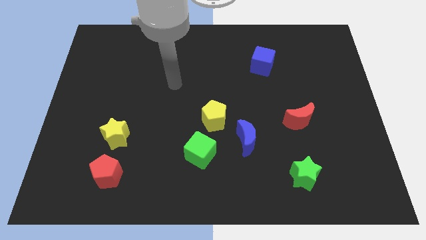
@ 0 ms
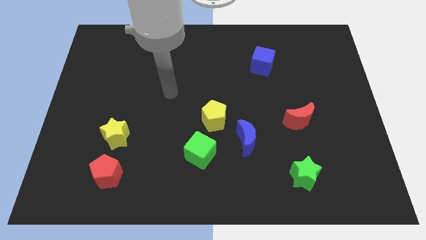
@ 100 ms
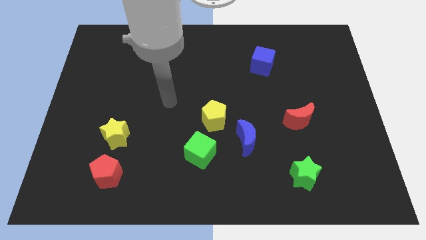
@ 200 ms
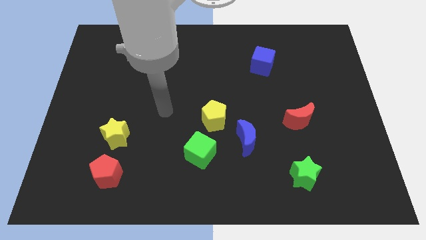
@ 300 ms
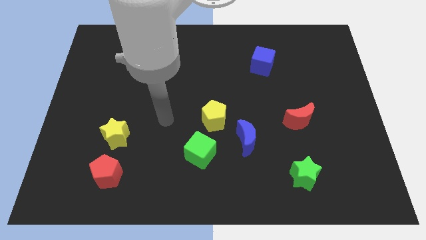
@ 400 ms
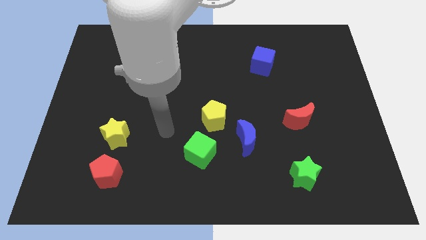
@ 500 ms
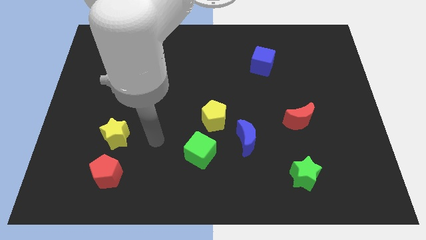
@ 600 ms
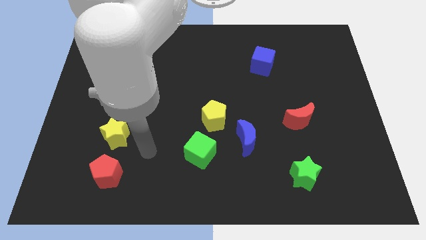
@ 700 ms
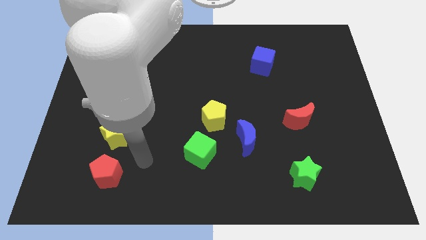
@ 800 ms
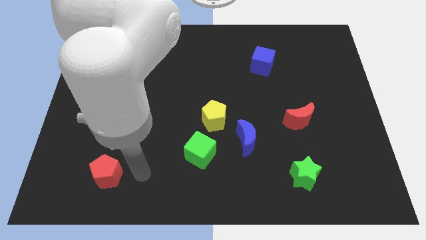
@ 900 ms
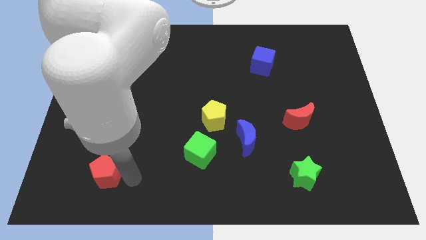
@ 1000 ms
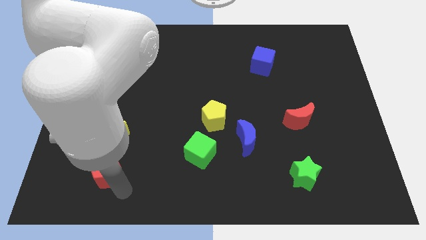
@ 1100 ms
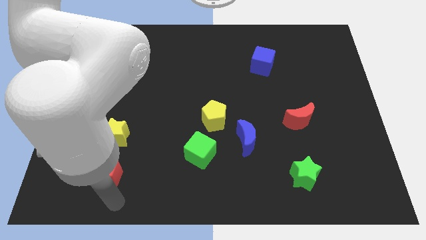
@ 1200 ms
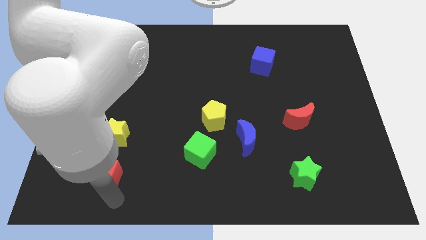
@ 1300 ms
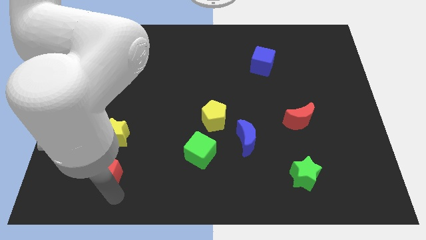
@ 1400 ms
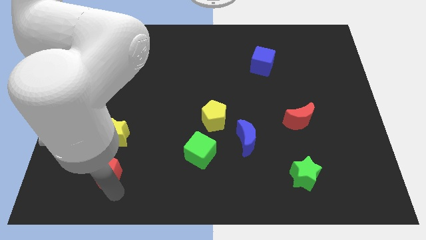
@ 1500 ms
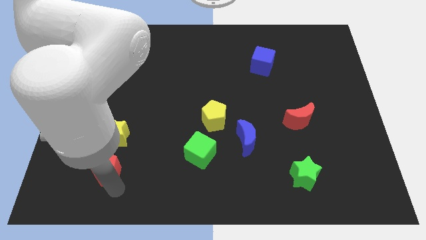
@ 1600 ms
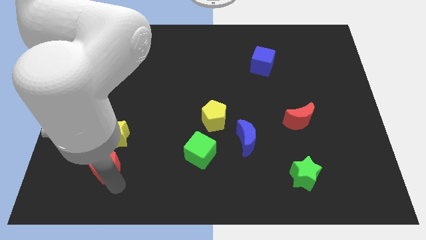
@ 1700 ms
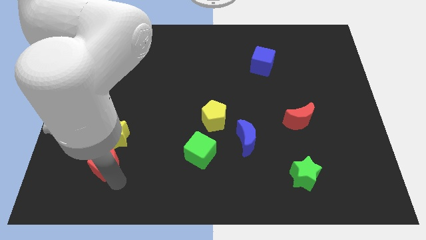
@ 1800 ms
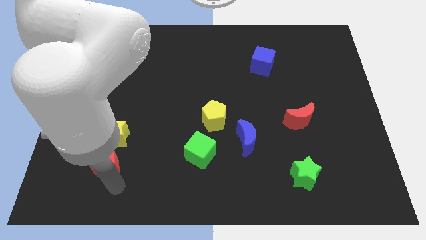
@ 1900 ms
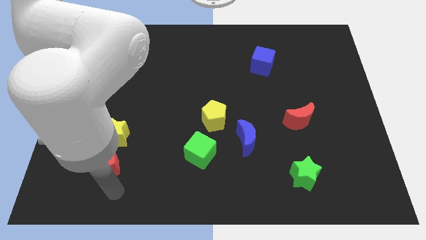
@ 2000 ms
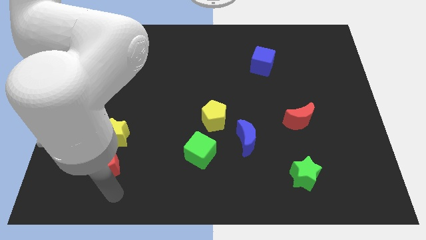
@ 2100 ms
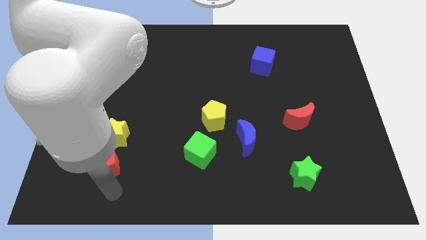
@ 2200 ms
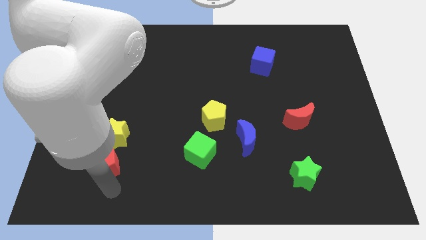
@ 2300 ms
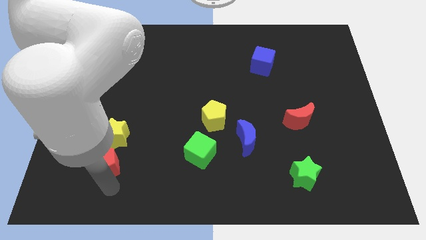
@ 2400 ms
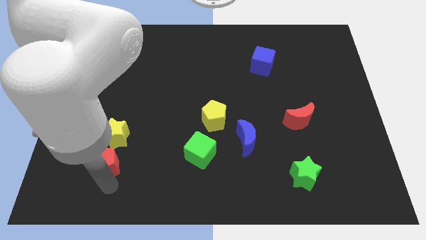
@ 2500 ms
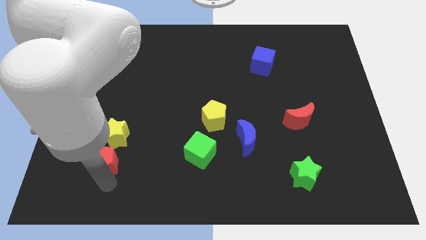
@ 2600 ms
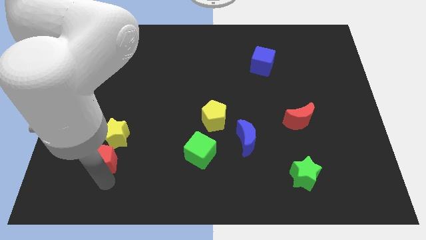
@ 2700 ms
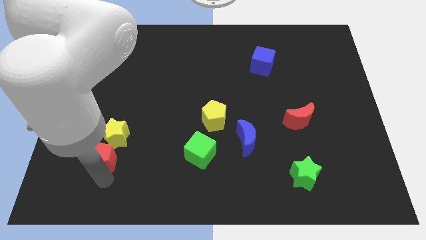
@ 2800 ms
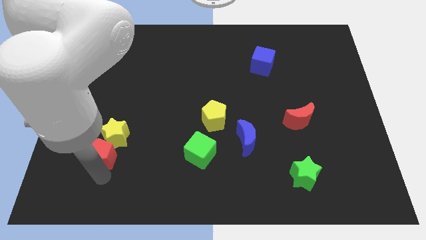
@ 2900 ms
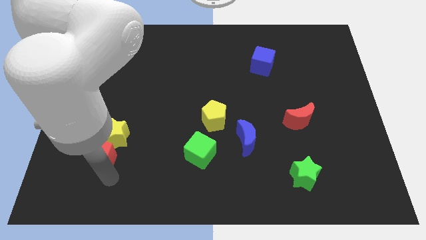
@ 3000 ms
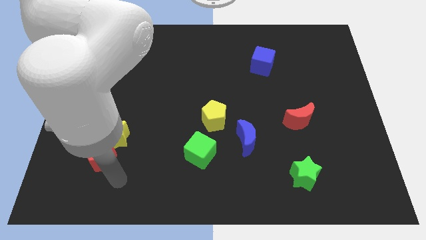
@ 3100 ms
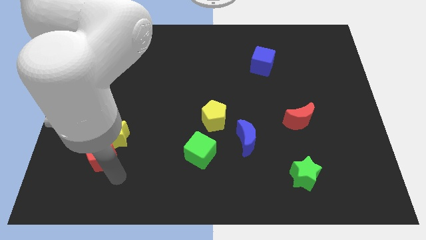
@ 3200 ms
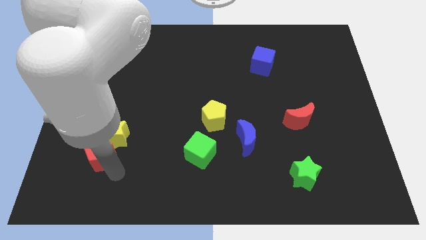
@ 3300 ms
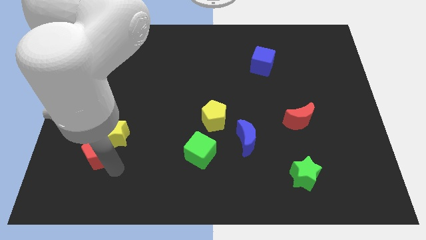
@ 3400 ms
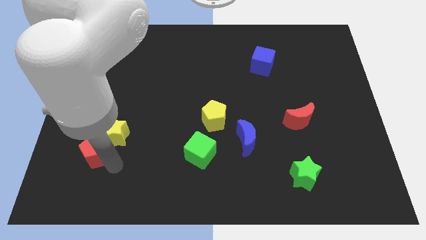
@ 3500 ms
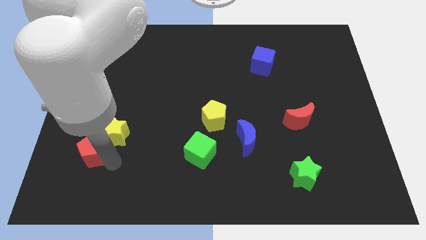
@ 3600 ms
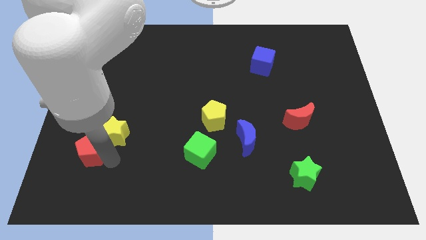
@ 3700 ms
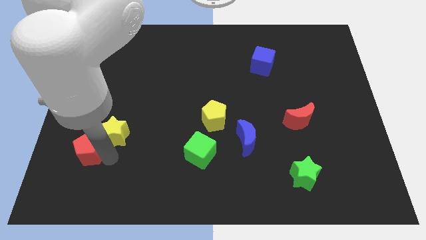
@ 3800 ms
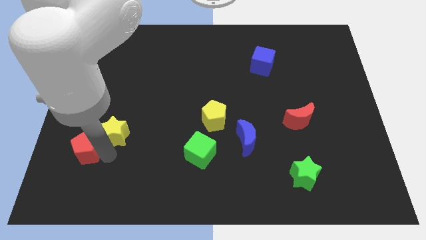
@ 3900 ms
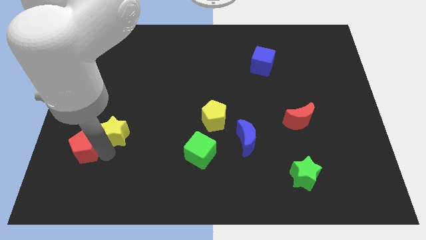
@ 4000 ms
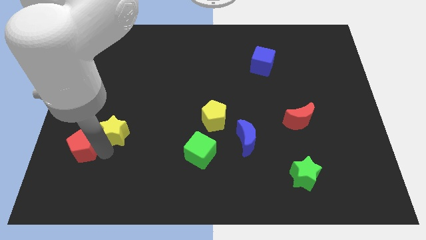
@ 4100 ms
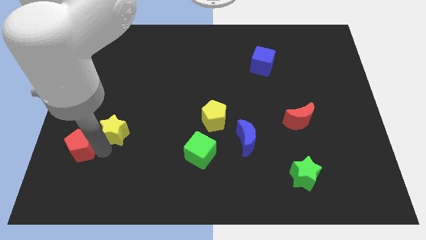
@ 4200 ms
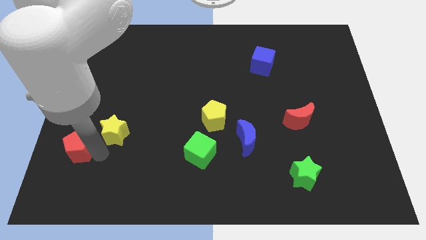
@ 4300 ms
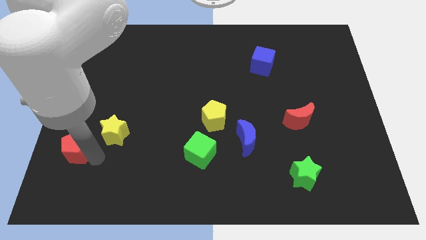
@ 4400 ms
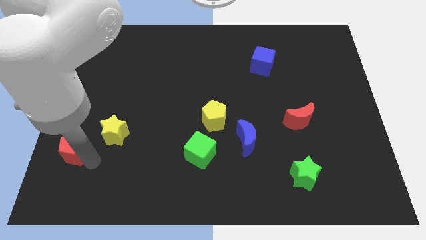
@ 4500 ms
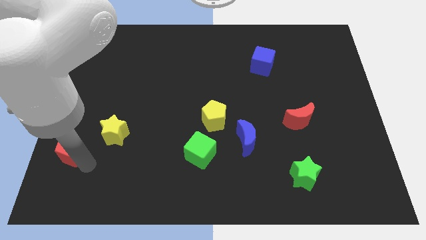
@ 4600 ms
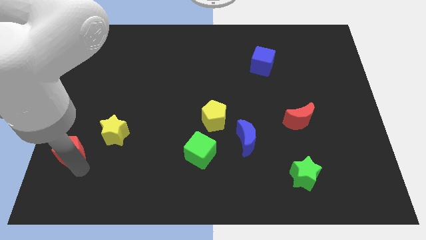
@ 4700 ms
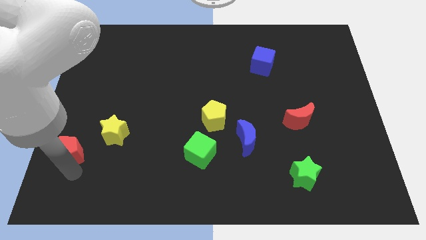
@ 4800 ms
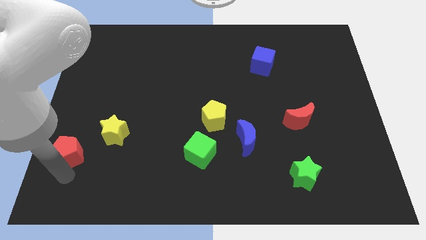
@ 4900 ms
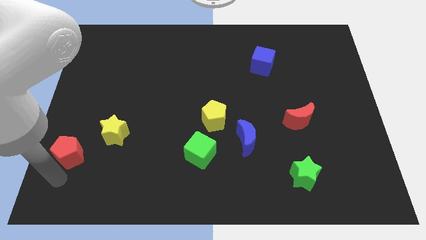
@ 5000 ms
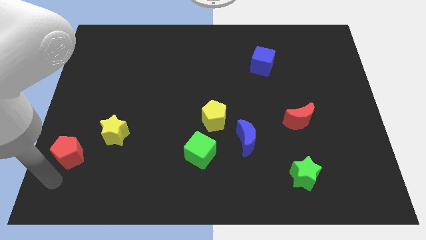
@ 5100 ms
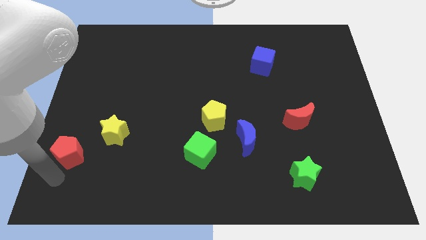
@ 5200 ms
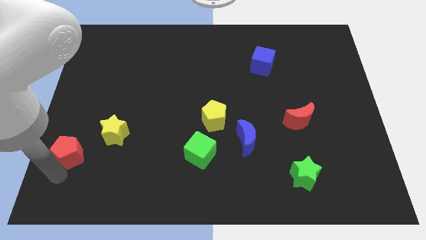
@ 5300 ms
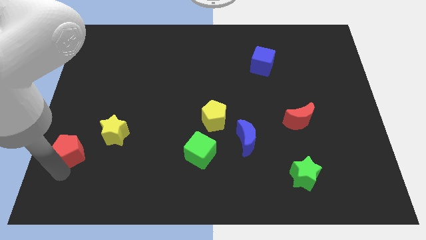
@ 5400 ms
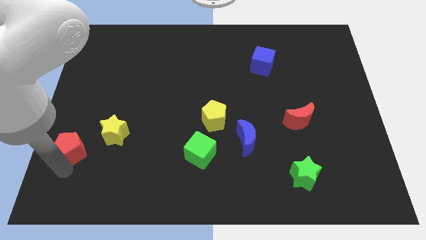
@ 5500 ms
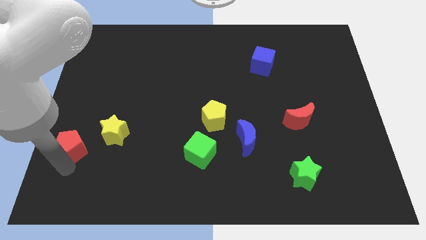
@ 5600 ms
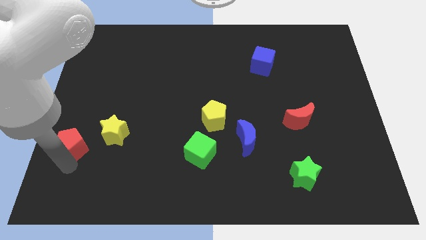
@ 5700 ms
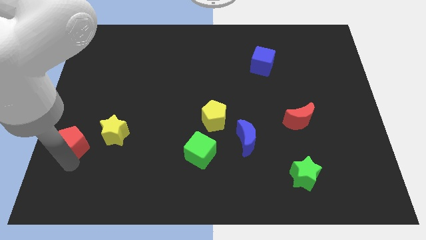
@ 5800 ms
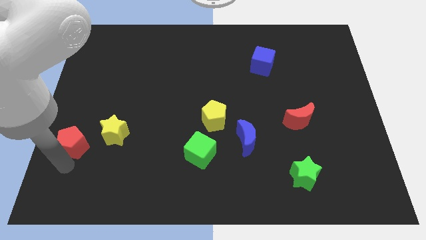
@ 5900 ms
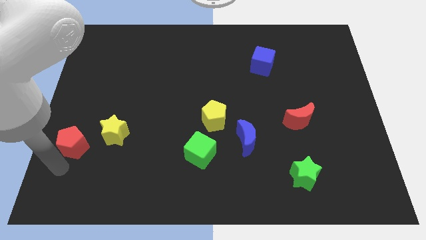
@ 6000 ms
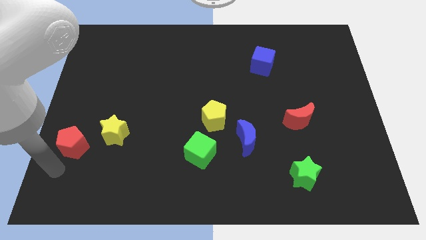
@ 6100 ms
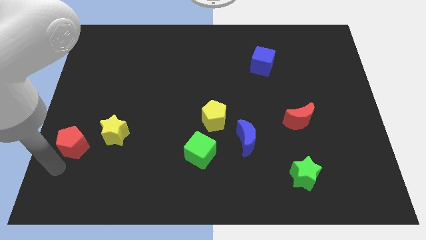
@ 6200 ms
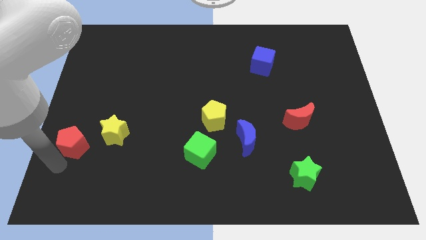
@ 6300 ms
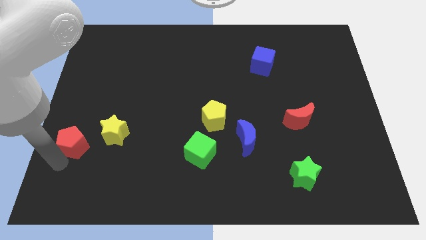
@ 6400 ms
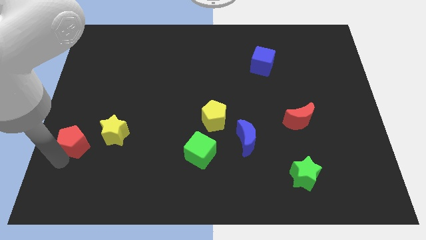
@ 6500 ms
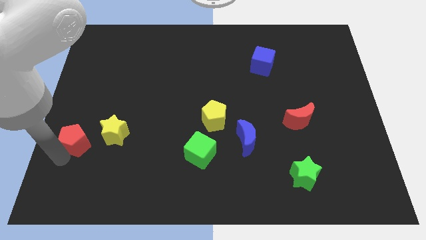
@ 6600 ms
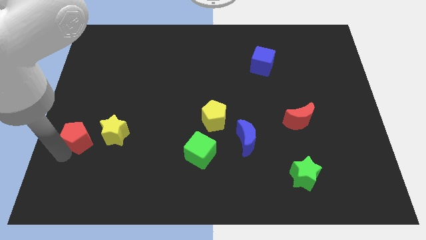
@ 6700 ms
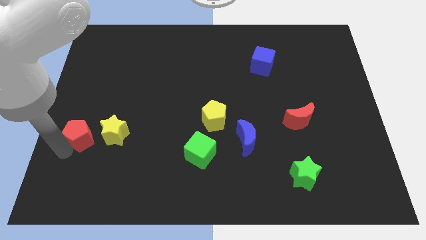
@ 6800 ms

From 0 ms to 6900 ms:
put the red pentagon to the left side
